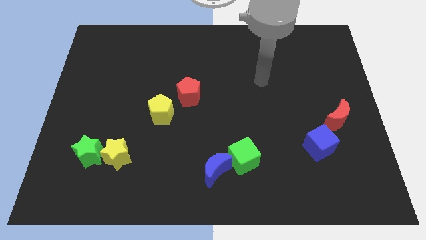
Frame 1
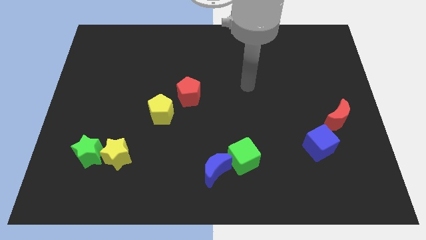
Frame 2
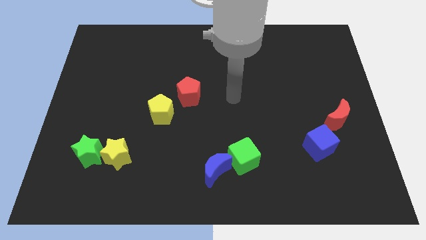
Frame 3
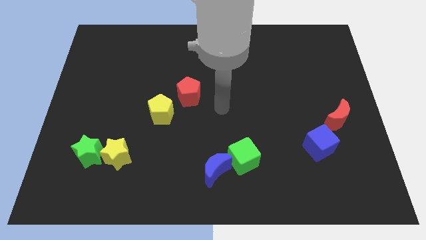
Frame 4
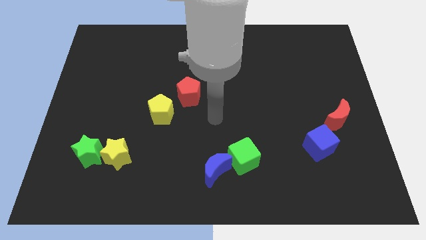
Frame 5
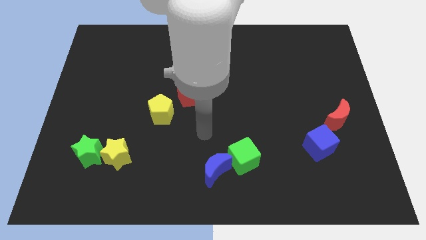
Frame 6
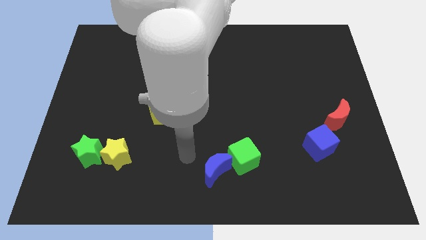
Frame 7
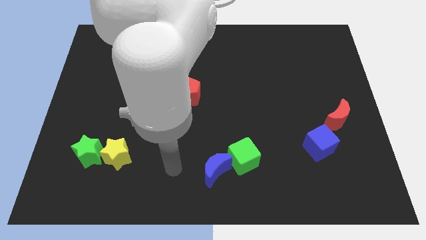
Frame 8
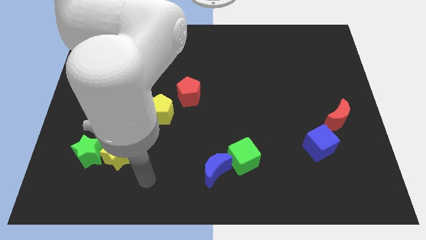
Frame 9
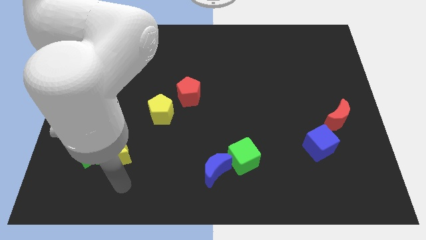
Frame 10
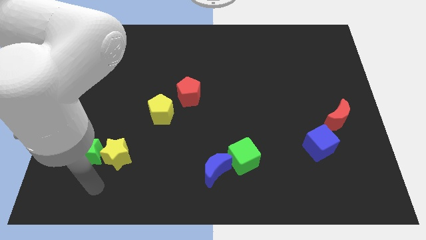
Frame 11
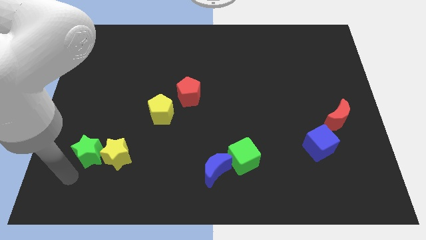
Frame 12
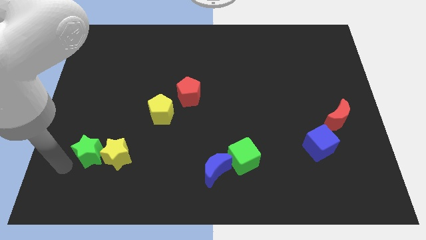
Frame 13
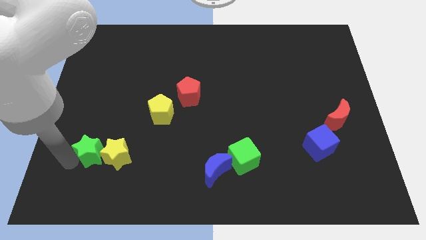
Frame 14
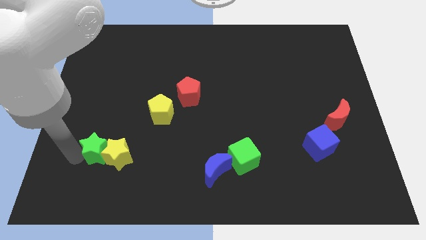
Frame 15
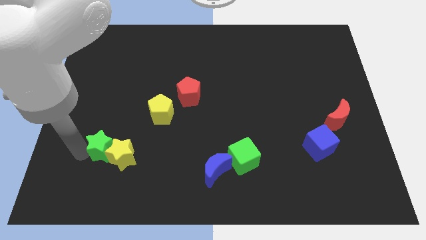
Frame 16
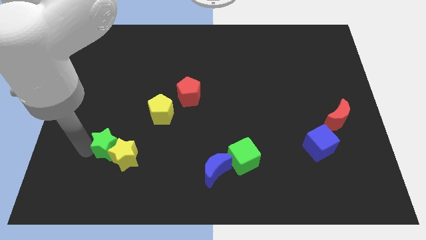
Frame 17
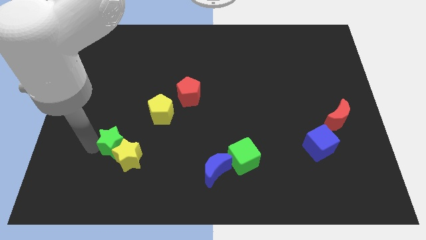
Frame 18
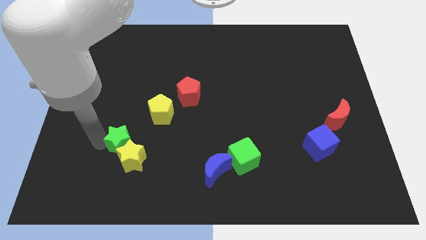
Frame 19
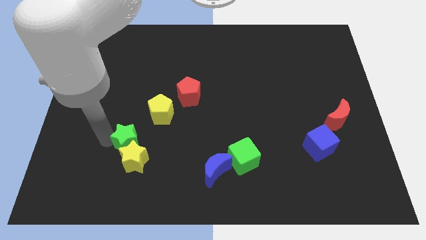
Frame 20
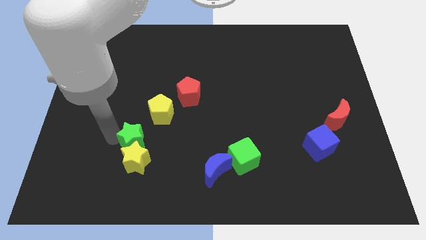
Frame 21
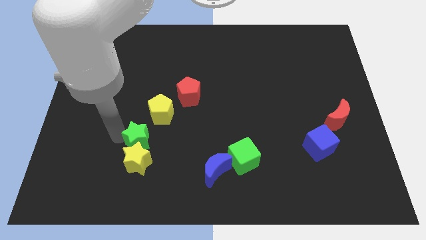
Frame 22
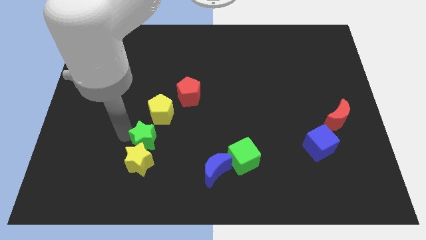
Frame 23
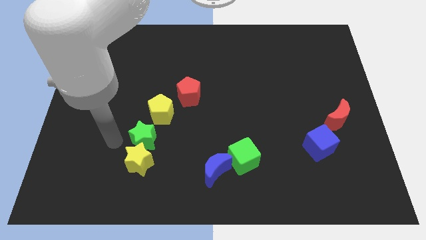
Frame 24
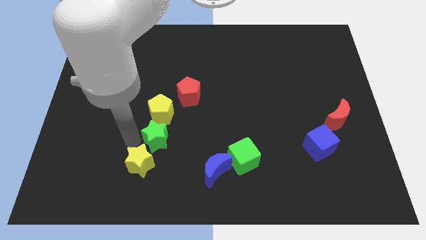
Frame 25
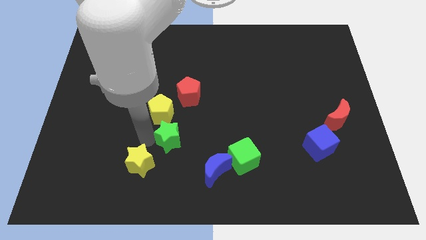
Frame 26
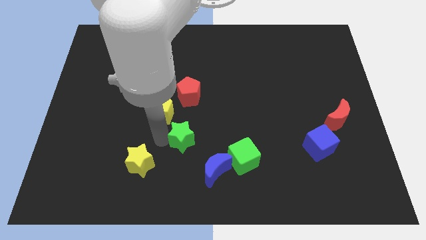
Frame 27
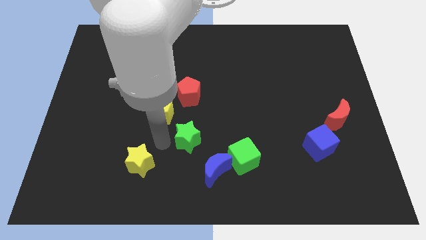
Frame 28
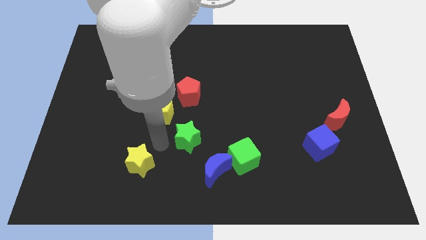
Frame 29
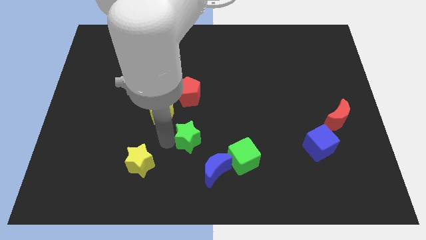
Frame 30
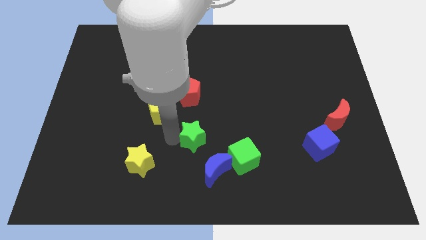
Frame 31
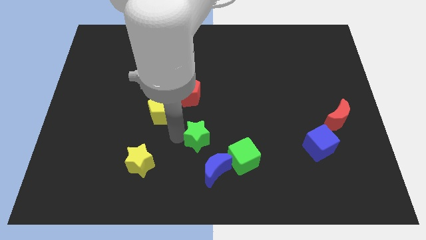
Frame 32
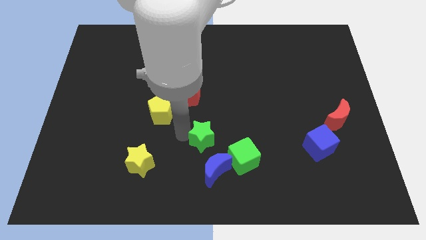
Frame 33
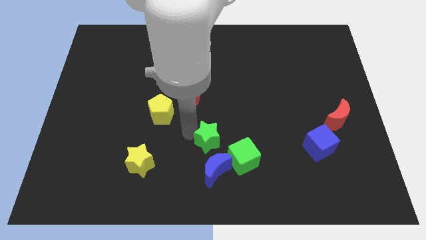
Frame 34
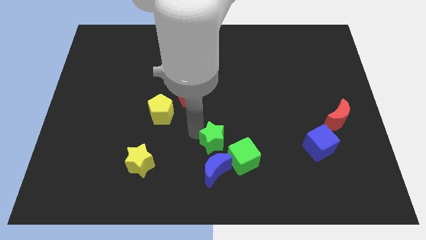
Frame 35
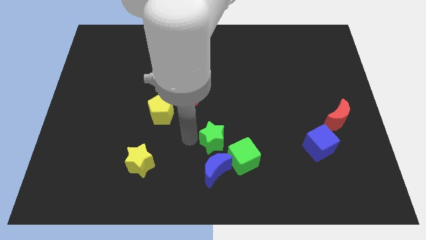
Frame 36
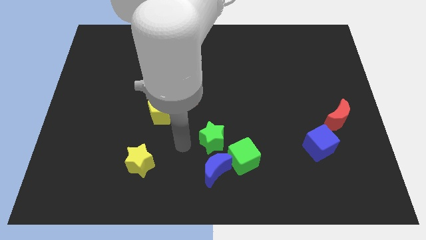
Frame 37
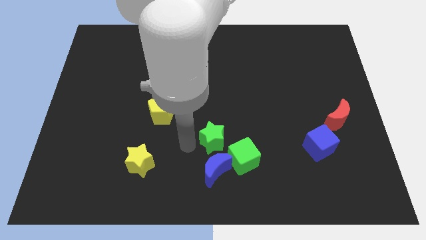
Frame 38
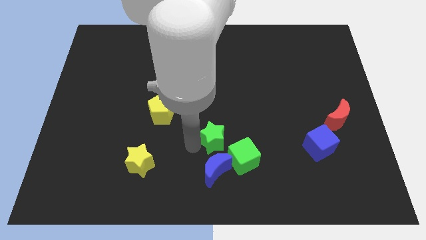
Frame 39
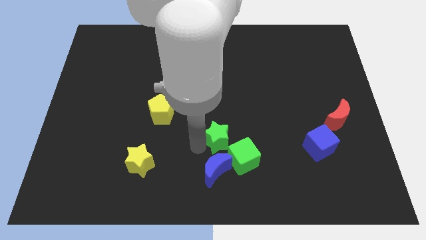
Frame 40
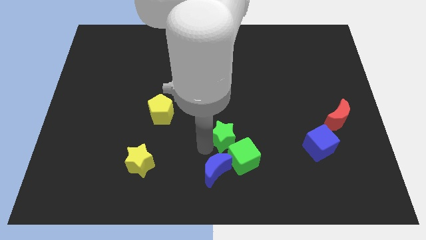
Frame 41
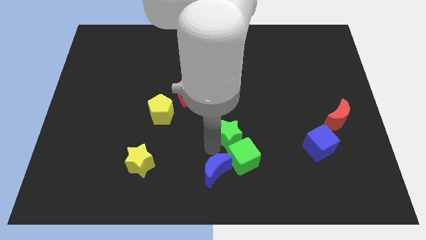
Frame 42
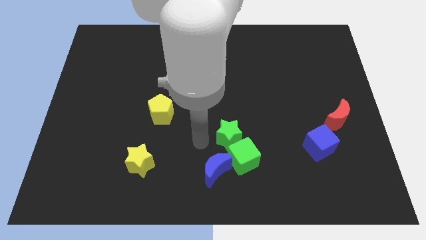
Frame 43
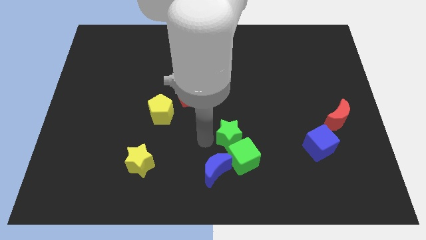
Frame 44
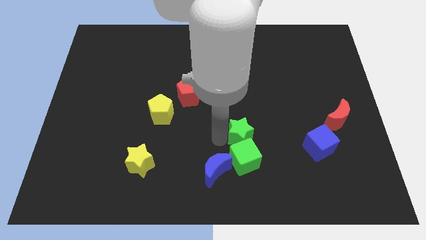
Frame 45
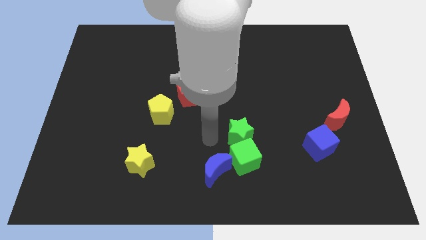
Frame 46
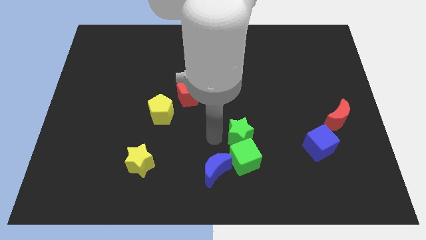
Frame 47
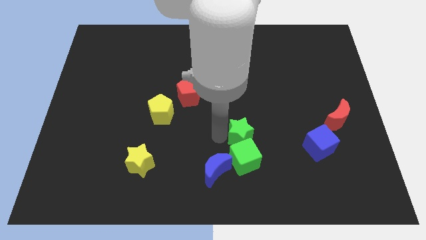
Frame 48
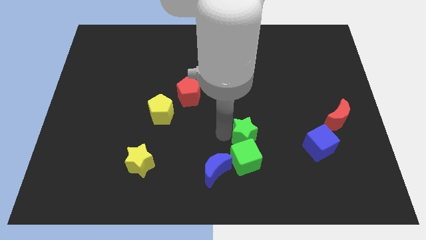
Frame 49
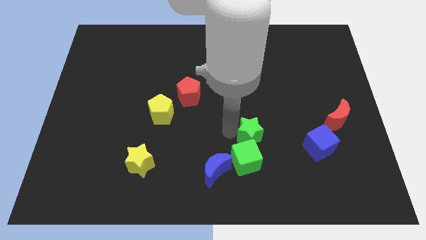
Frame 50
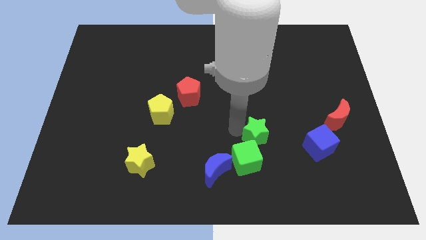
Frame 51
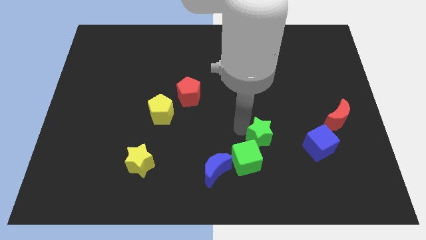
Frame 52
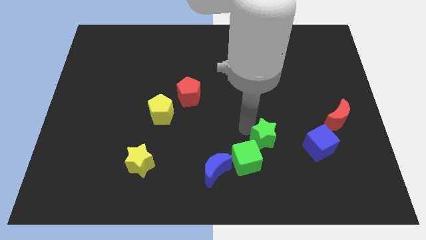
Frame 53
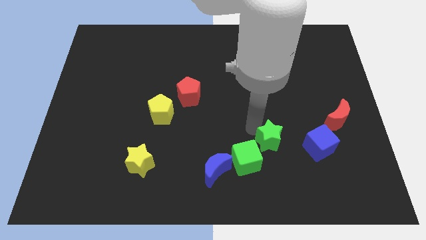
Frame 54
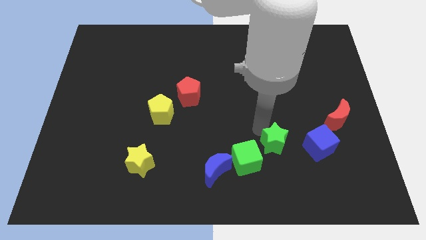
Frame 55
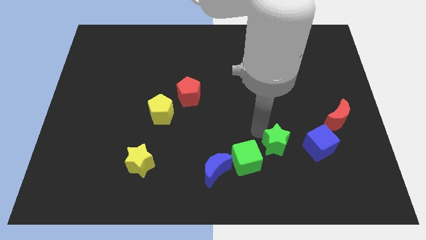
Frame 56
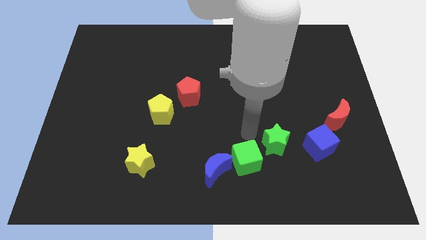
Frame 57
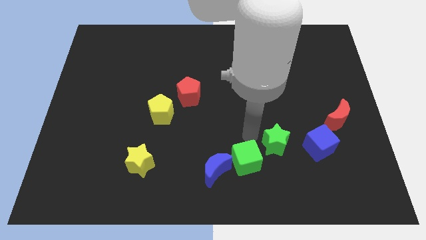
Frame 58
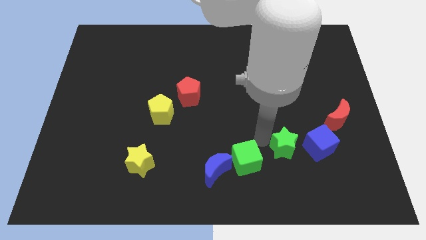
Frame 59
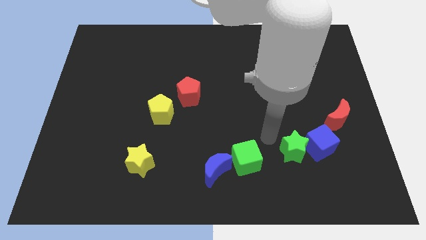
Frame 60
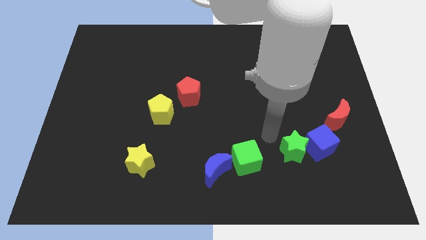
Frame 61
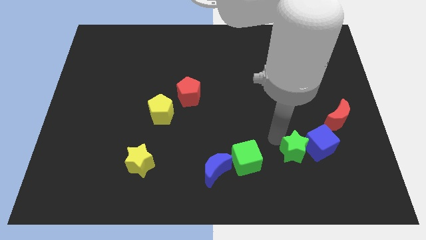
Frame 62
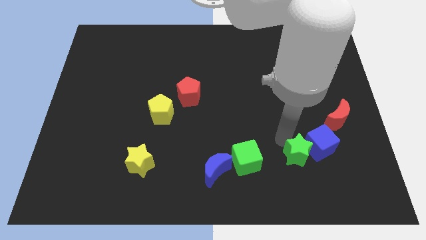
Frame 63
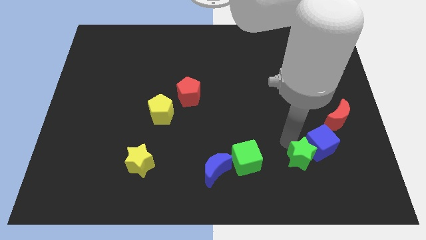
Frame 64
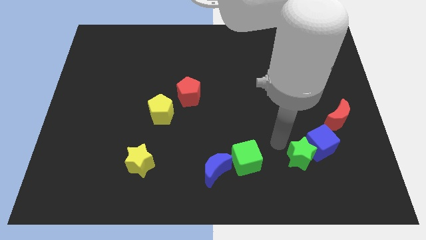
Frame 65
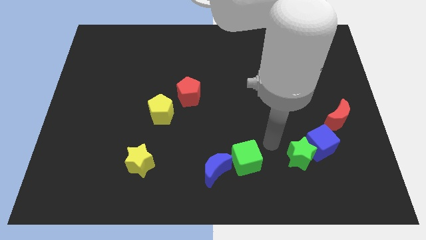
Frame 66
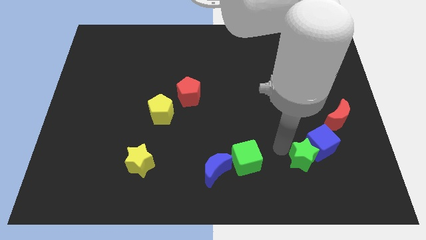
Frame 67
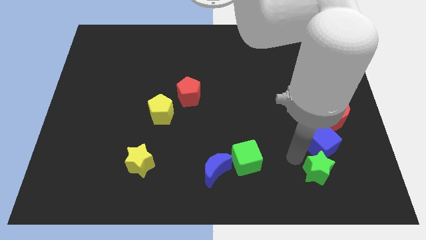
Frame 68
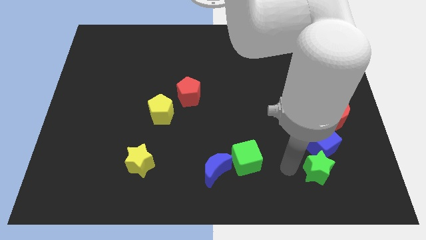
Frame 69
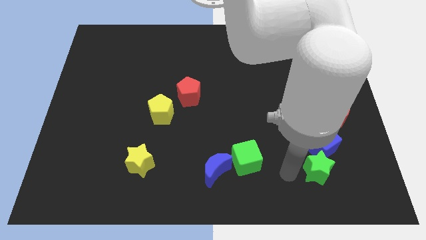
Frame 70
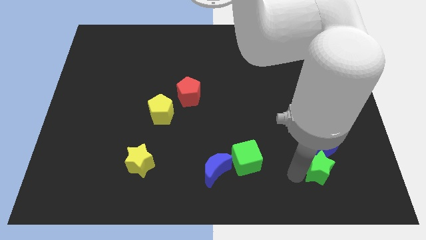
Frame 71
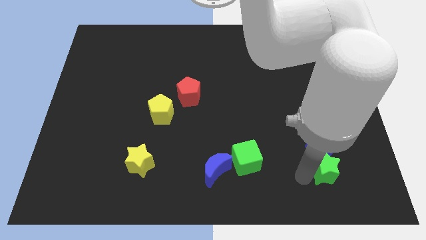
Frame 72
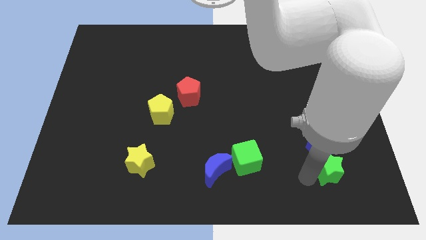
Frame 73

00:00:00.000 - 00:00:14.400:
move the green star to the bottom right side of the blue cube

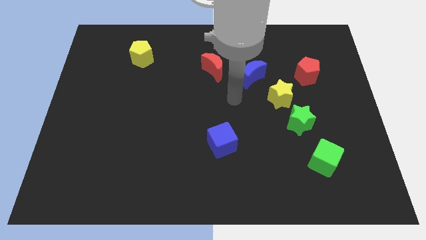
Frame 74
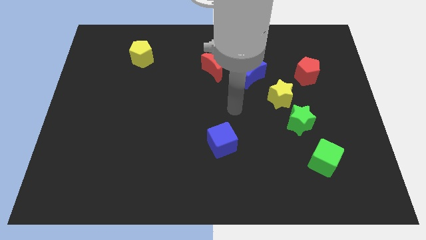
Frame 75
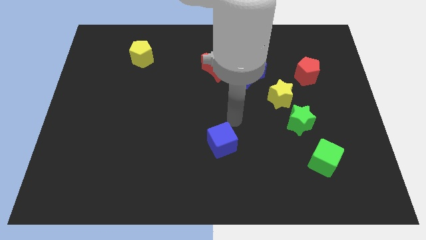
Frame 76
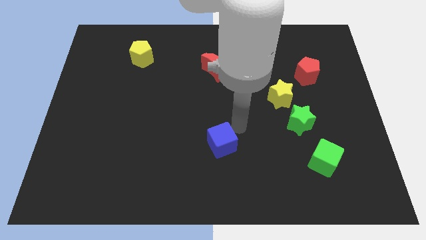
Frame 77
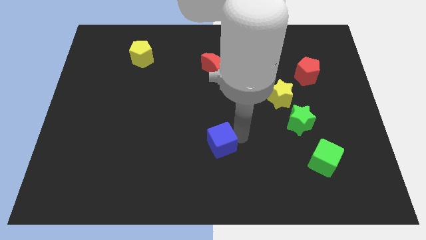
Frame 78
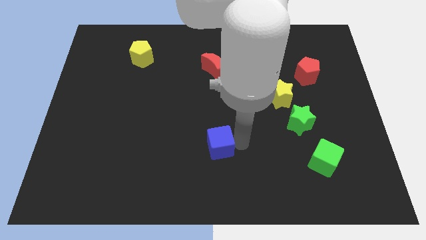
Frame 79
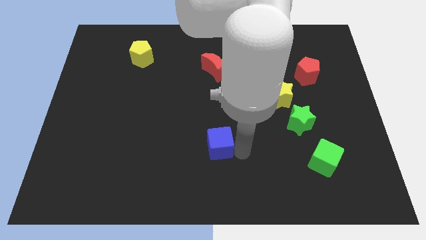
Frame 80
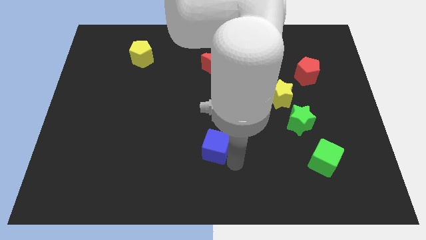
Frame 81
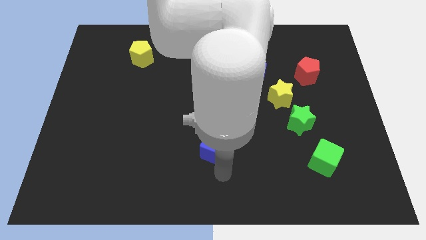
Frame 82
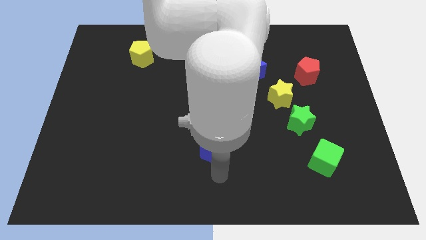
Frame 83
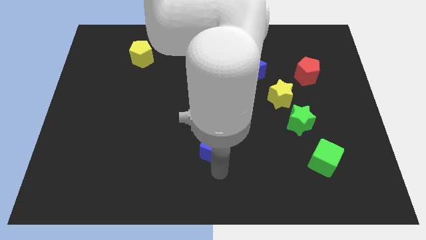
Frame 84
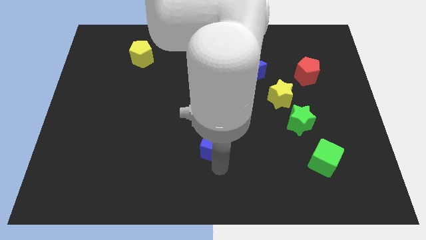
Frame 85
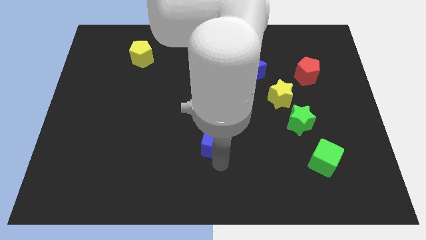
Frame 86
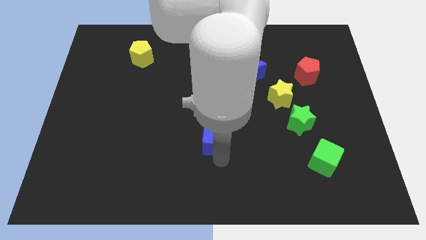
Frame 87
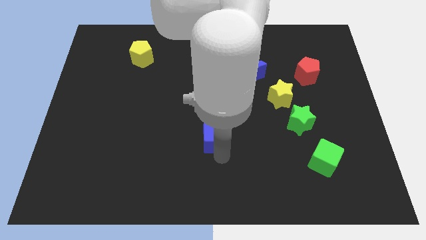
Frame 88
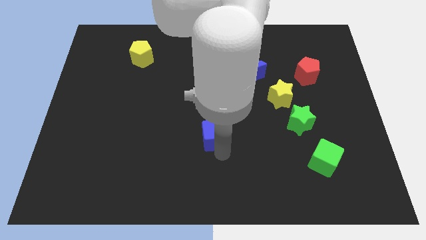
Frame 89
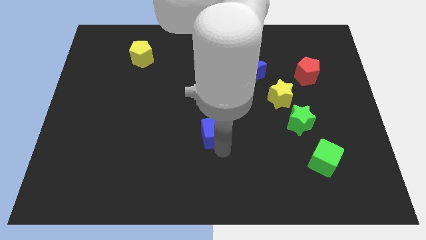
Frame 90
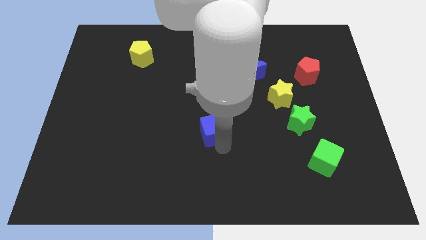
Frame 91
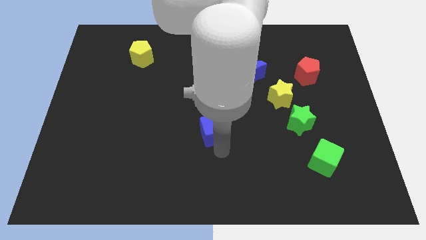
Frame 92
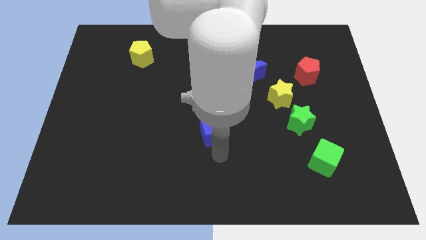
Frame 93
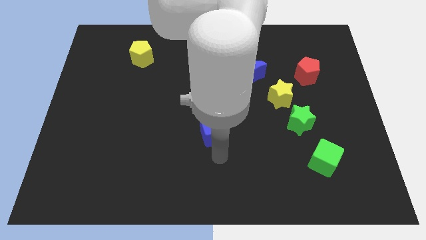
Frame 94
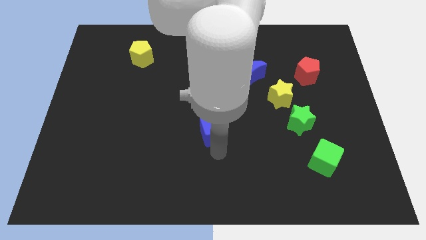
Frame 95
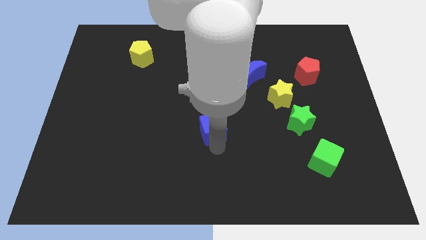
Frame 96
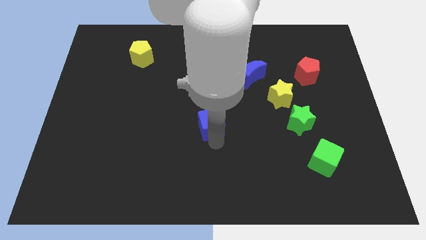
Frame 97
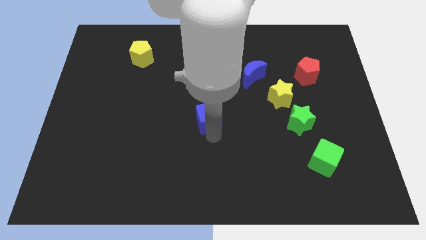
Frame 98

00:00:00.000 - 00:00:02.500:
slide the blue cube to the bottom side of the red moon
